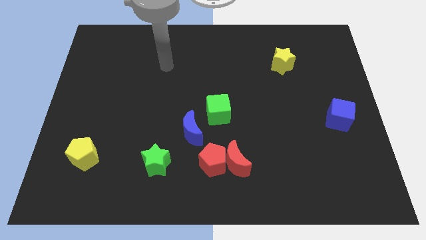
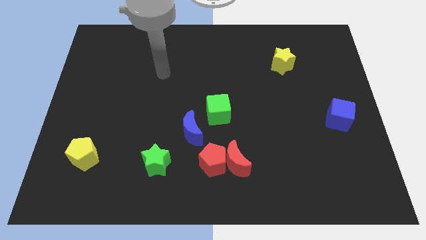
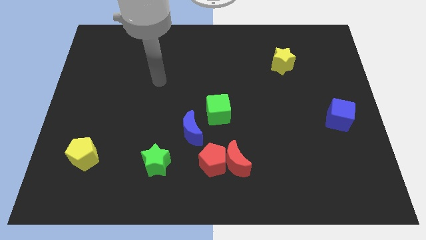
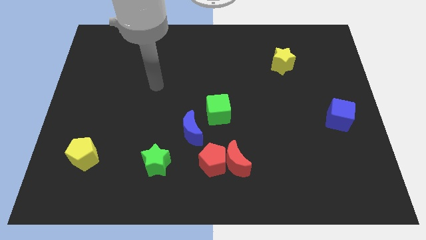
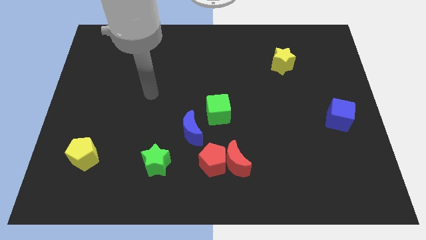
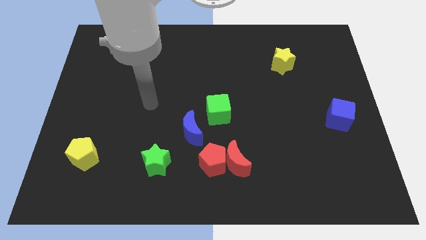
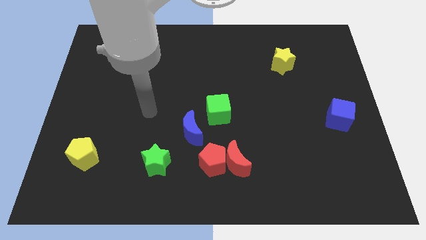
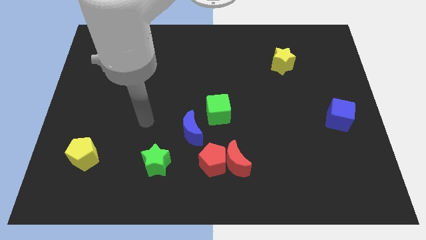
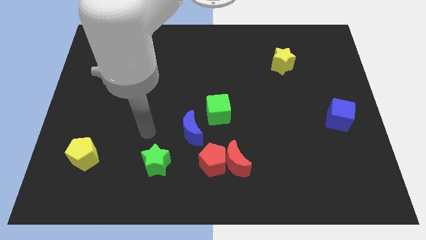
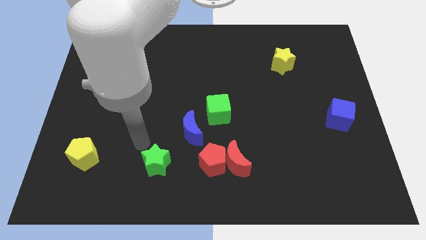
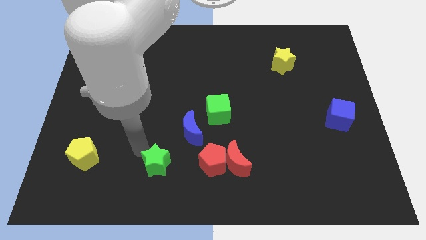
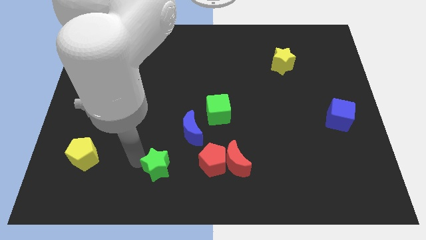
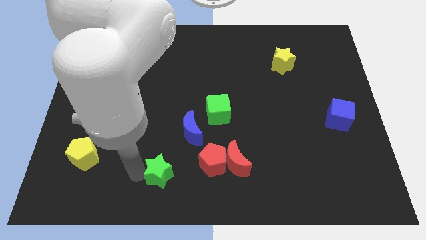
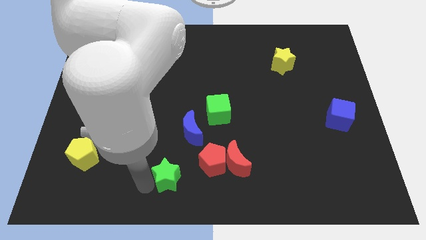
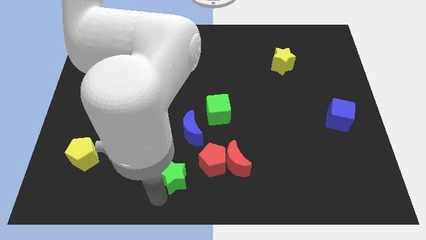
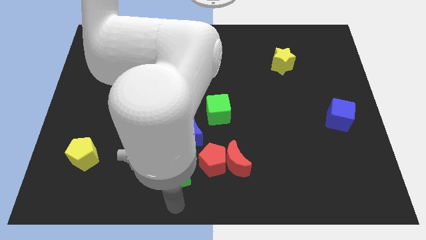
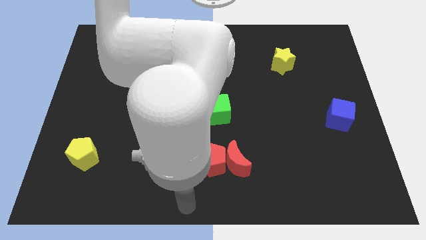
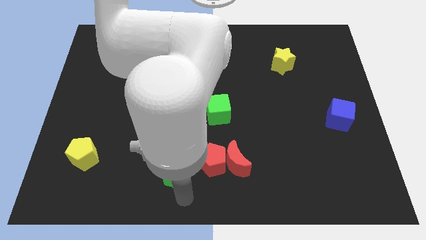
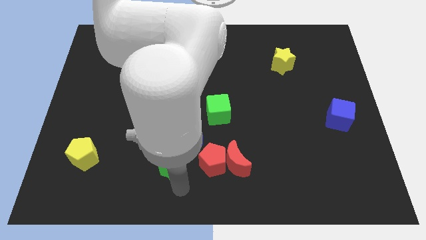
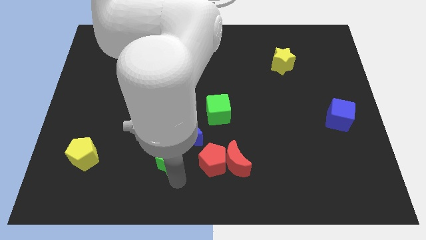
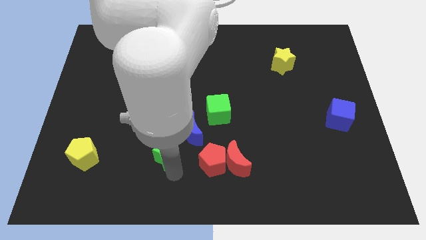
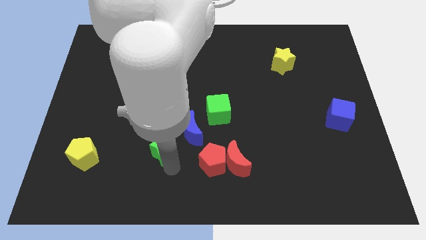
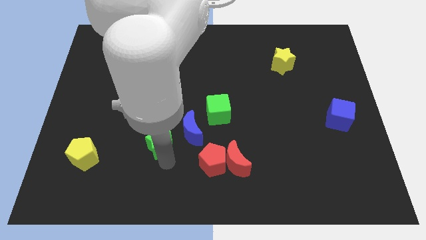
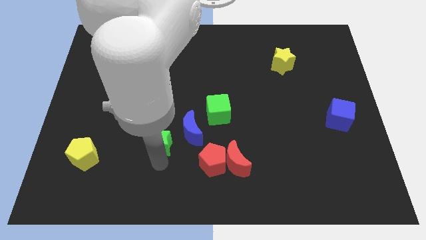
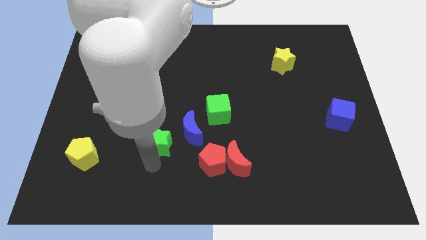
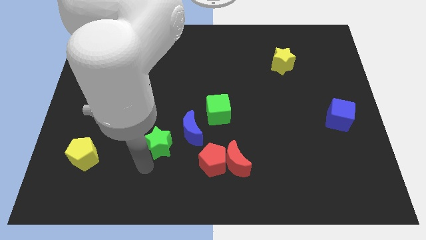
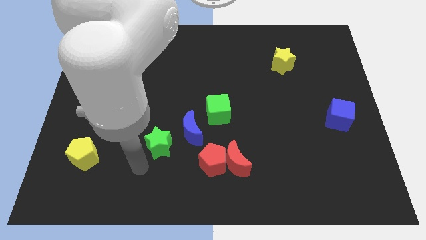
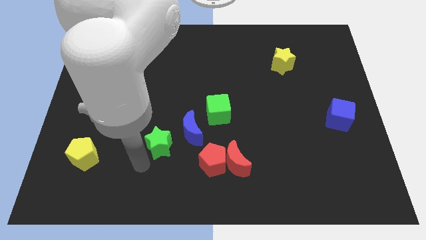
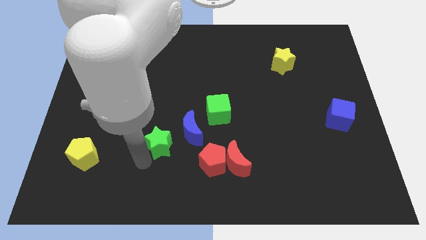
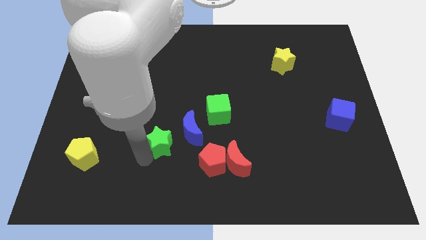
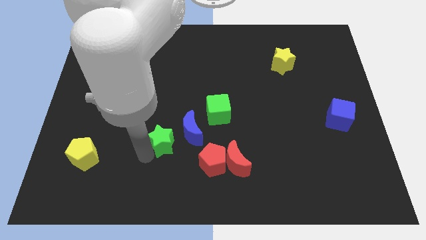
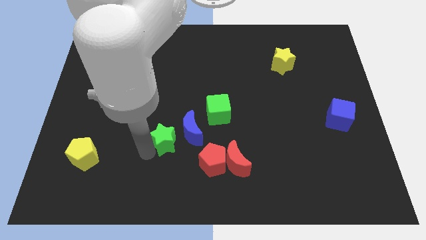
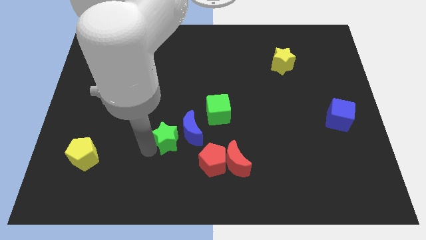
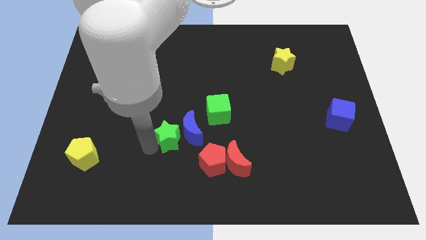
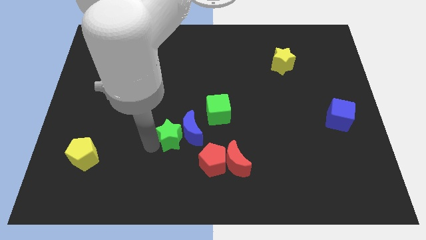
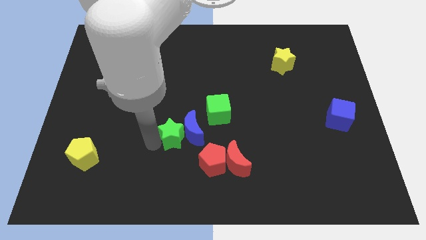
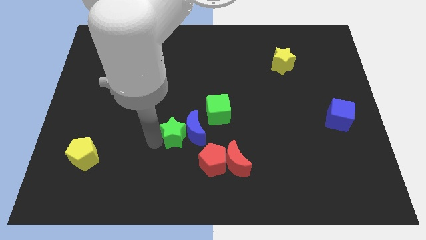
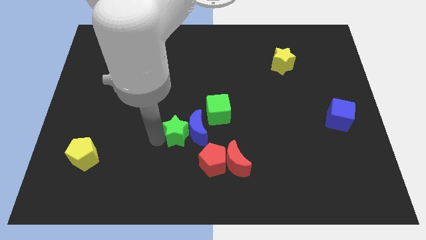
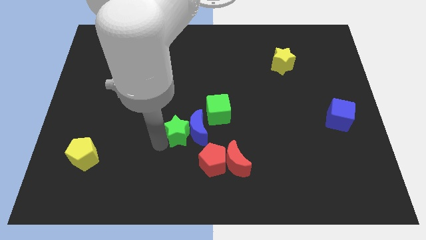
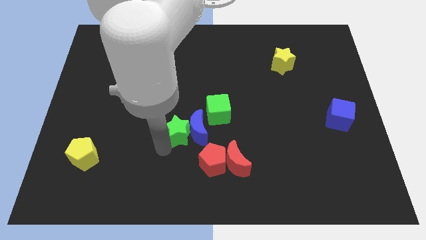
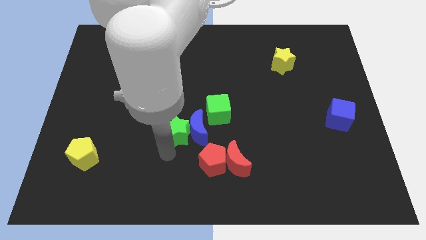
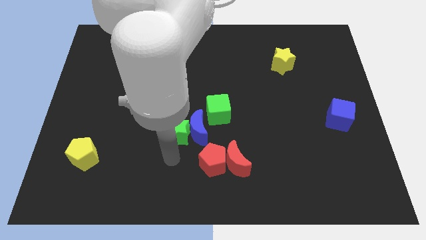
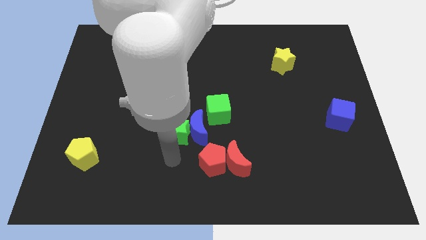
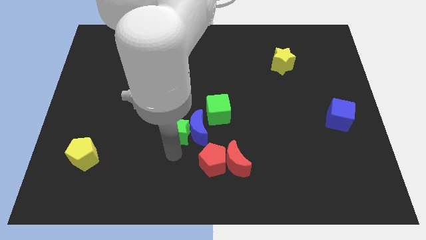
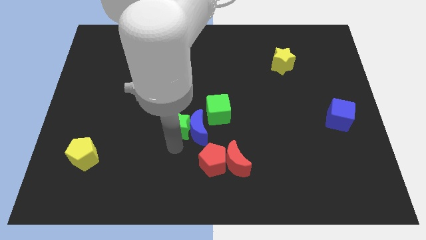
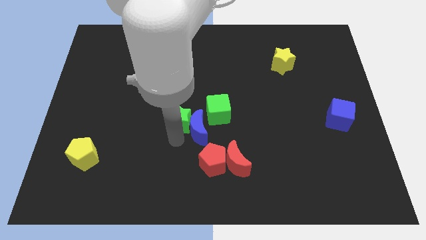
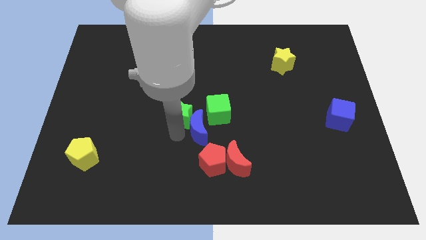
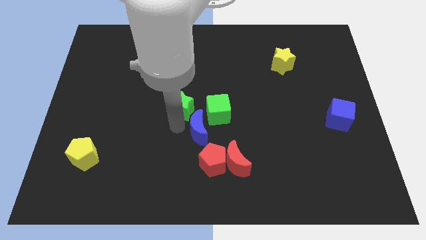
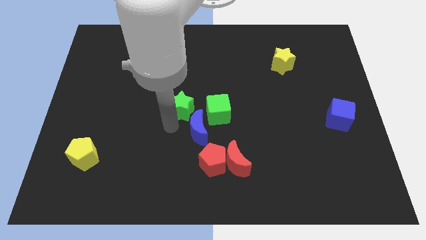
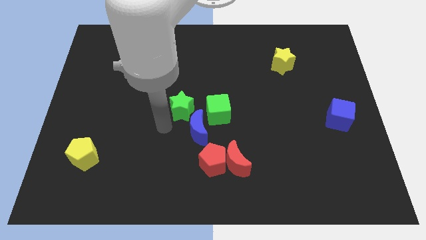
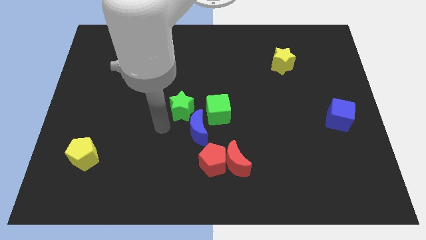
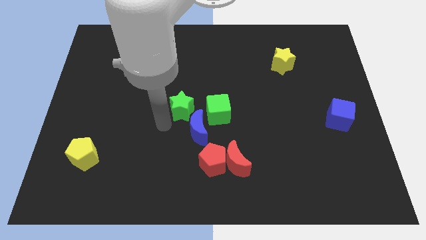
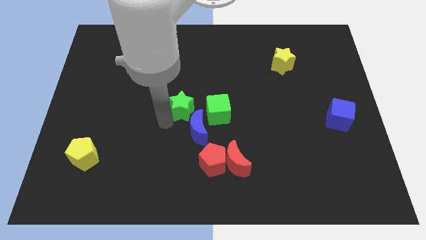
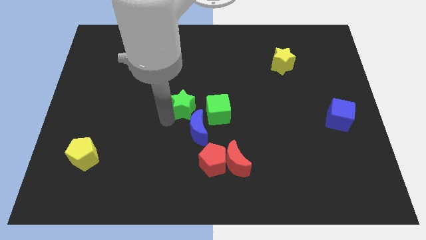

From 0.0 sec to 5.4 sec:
put the green star to the top left side of the green cube

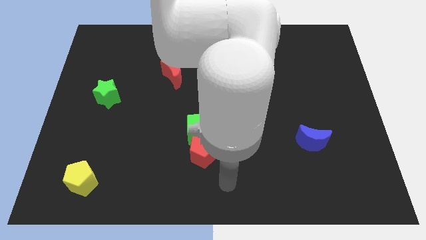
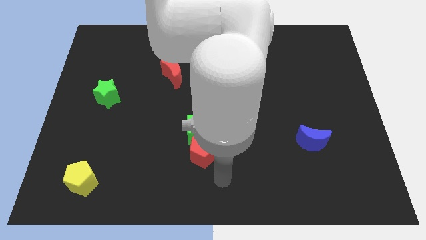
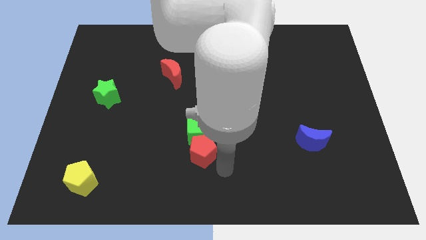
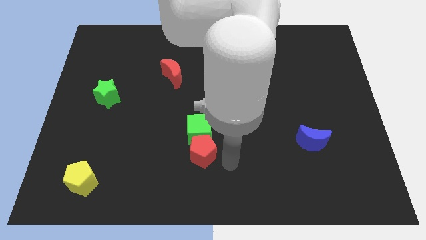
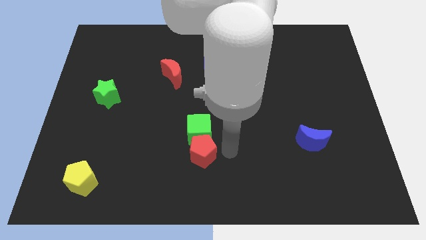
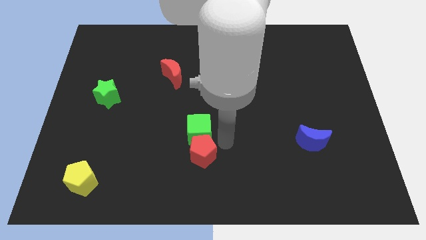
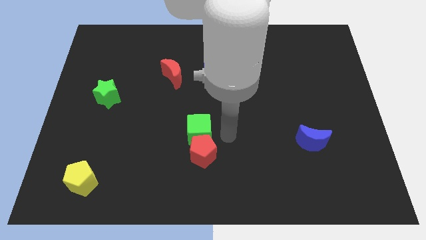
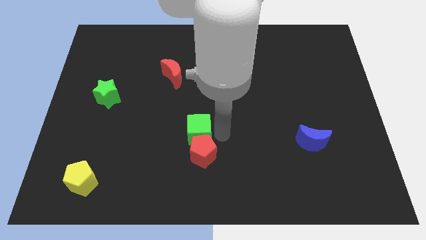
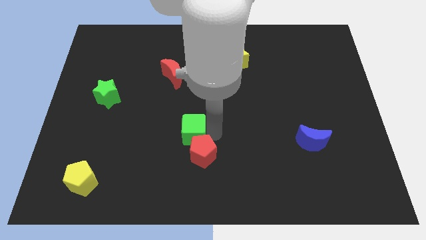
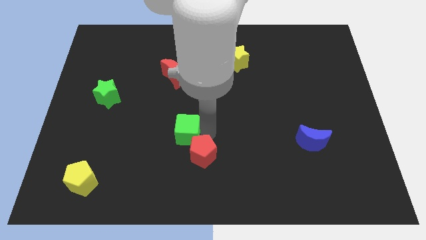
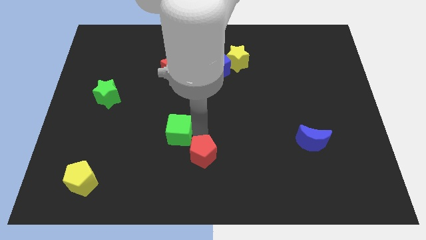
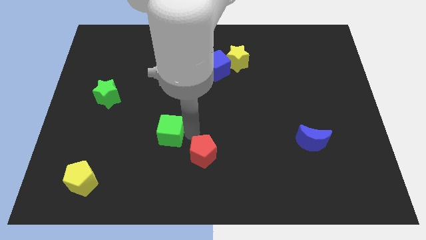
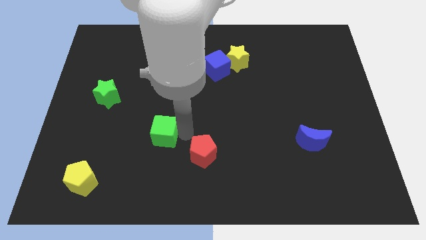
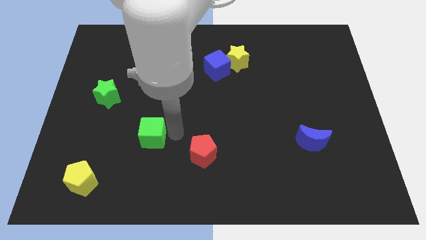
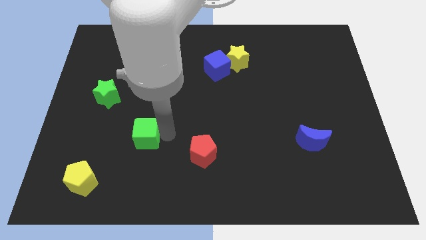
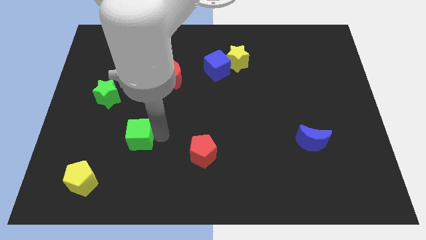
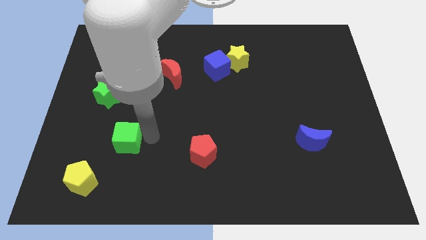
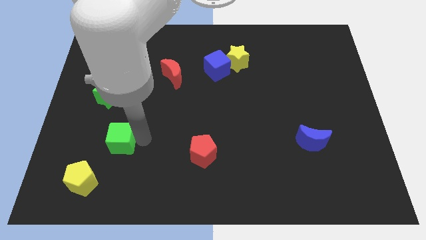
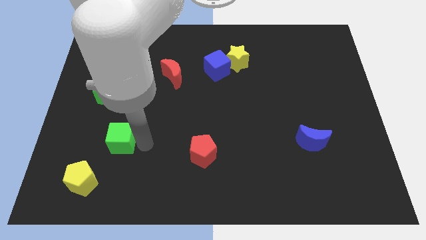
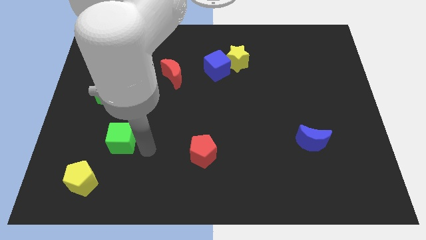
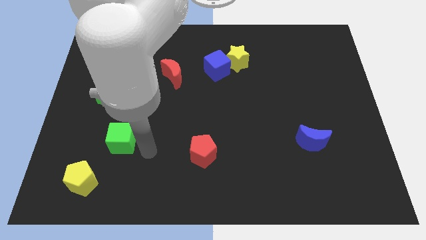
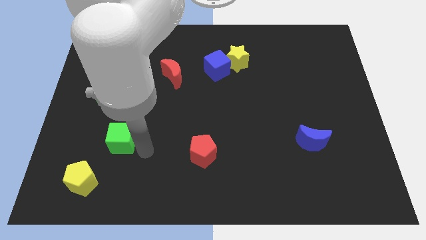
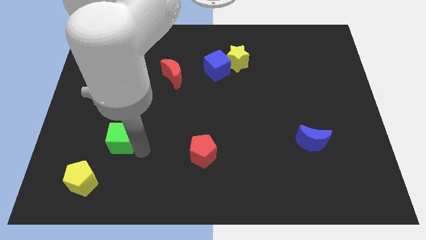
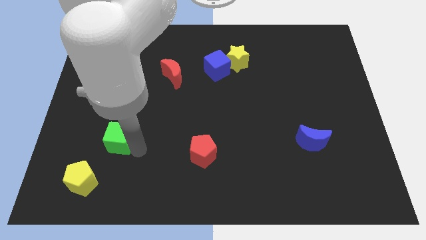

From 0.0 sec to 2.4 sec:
slide the green cube below the green star
